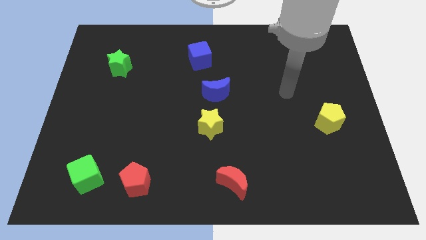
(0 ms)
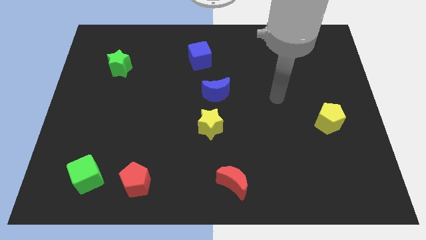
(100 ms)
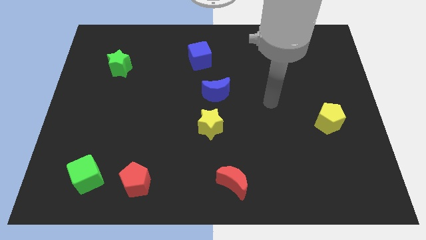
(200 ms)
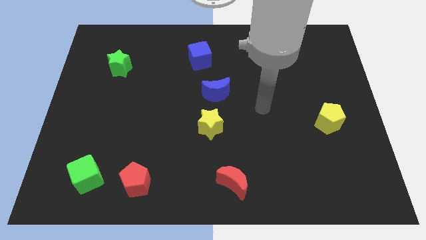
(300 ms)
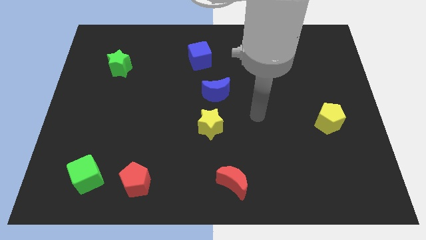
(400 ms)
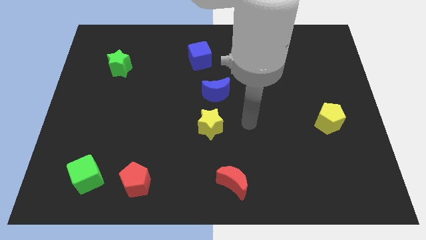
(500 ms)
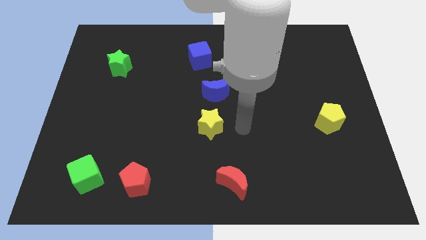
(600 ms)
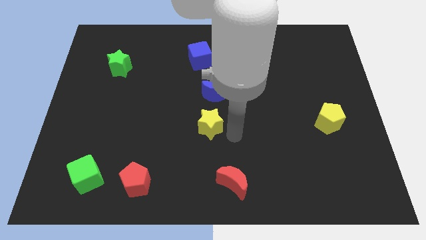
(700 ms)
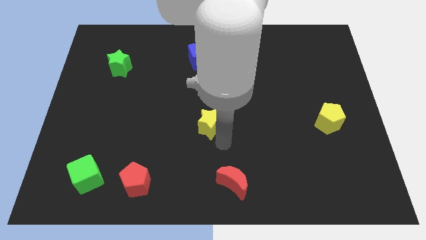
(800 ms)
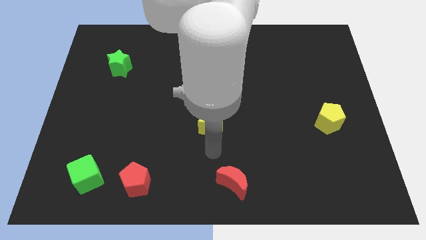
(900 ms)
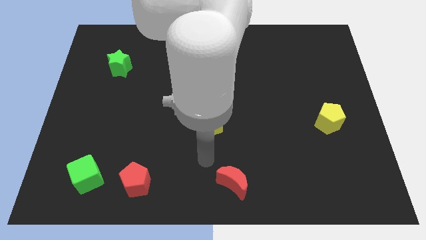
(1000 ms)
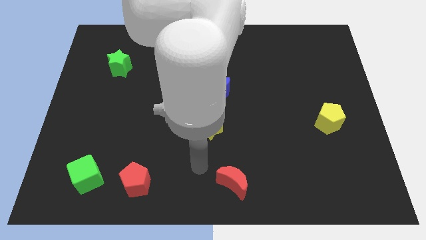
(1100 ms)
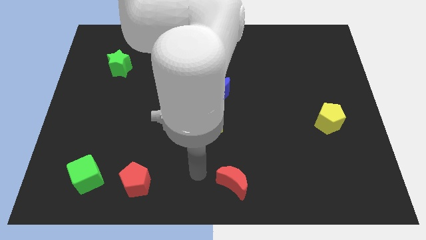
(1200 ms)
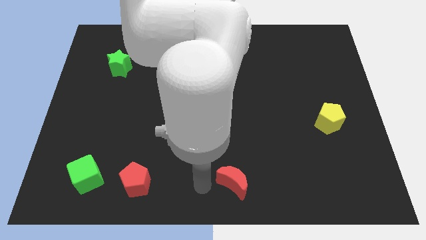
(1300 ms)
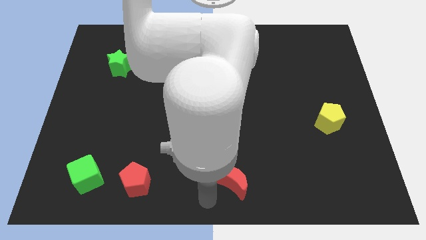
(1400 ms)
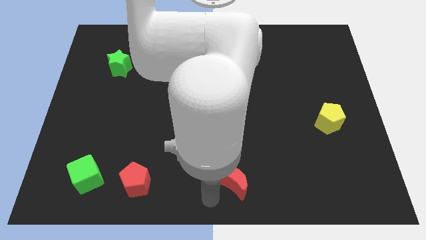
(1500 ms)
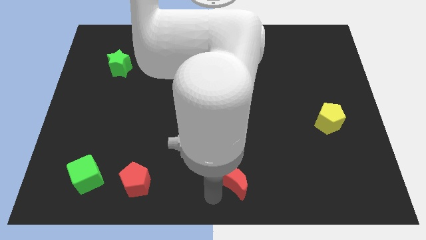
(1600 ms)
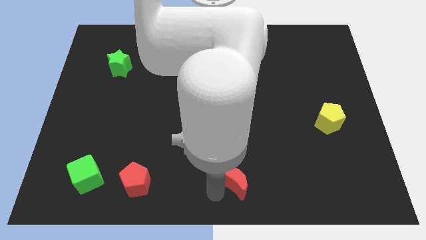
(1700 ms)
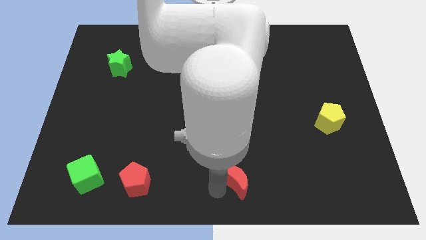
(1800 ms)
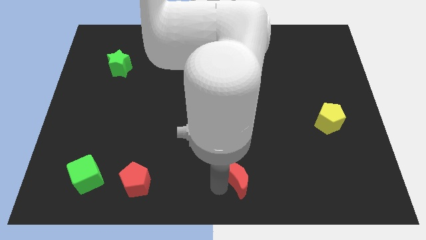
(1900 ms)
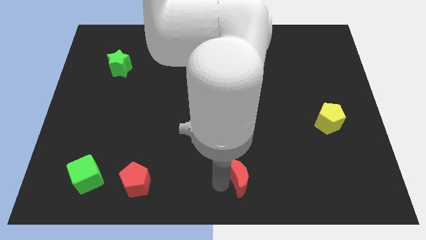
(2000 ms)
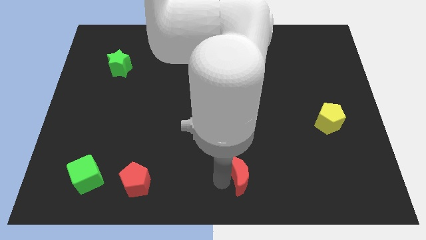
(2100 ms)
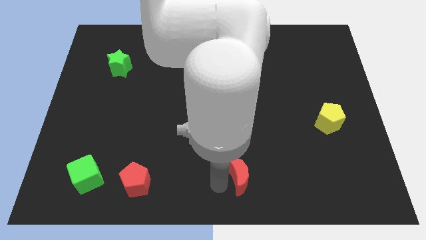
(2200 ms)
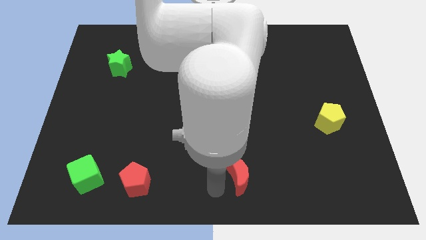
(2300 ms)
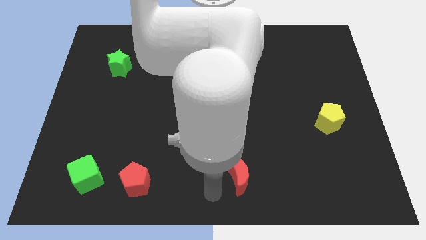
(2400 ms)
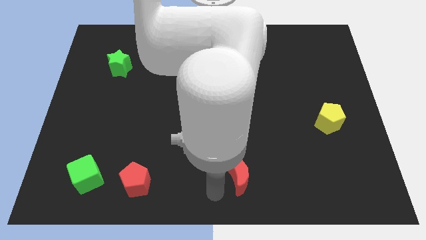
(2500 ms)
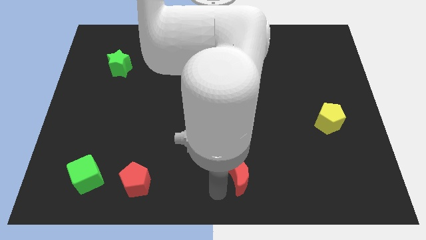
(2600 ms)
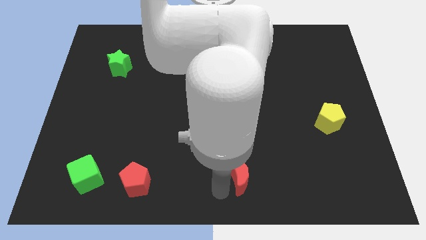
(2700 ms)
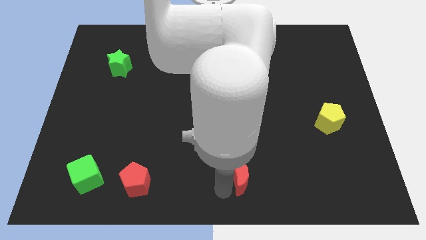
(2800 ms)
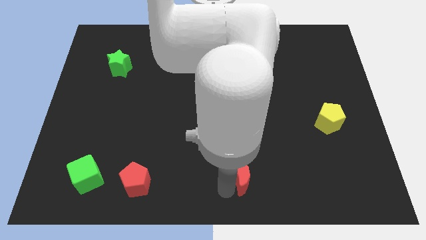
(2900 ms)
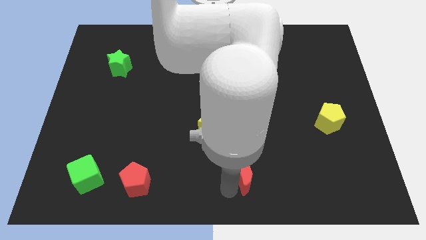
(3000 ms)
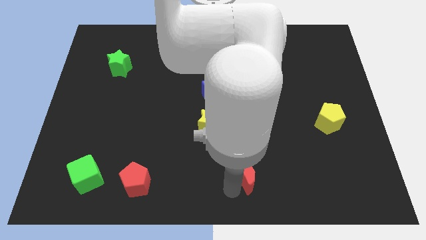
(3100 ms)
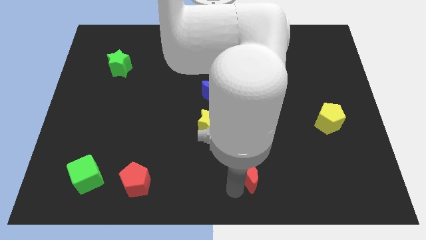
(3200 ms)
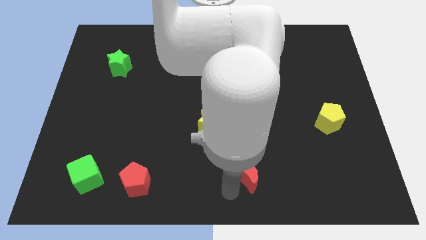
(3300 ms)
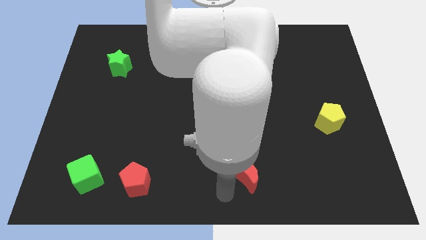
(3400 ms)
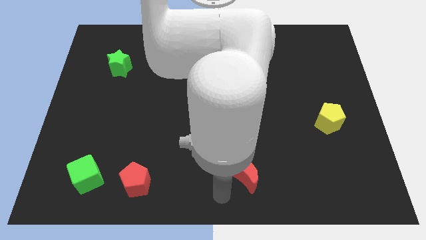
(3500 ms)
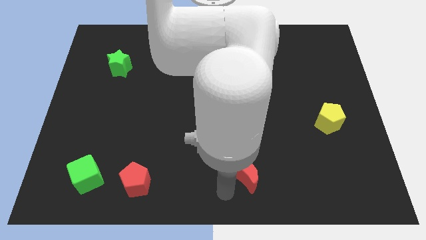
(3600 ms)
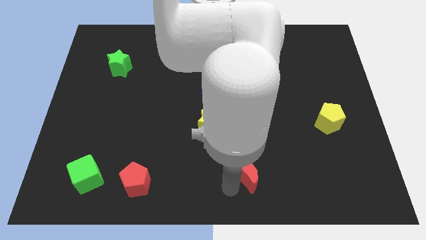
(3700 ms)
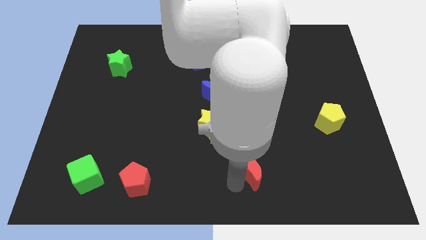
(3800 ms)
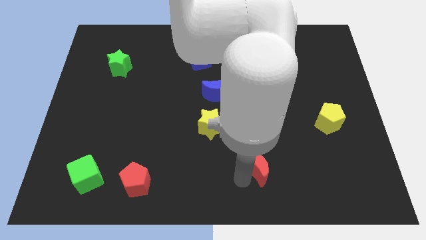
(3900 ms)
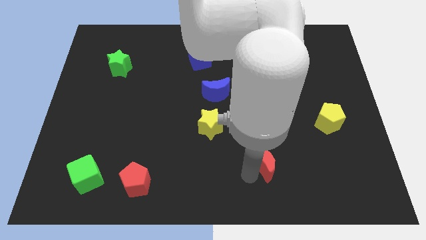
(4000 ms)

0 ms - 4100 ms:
move the red moon a little bit up and right

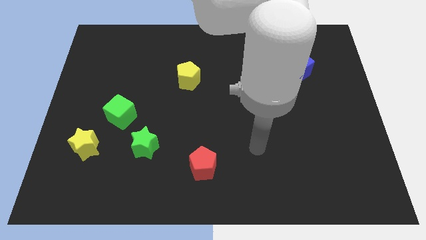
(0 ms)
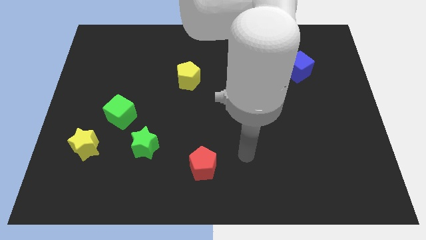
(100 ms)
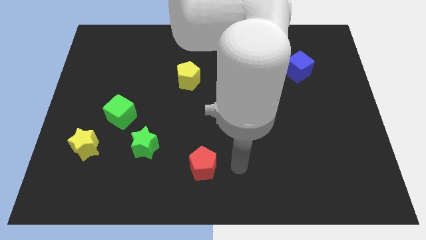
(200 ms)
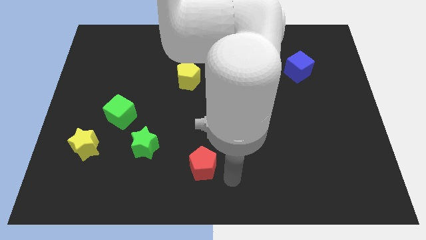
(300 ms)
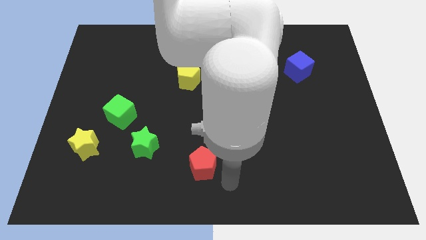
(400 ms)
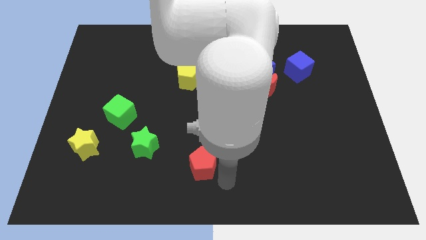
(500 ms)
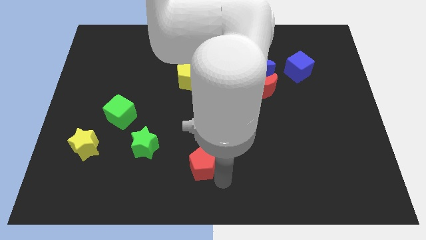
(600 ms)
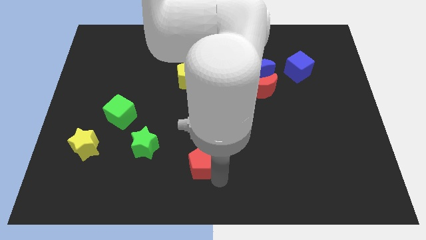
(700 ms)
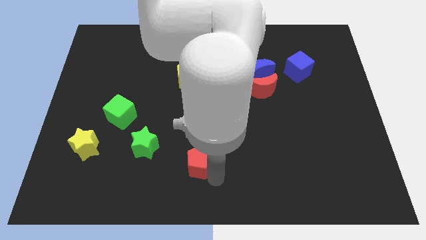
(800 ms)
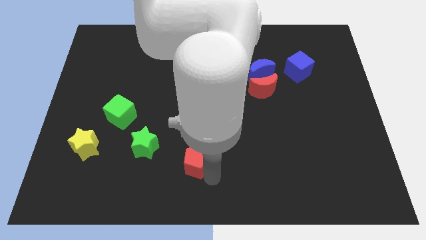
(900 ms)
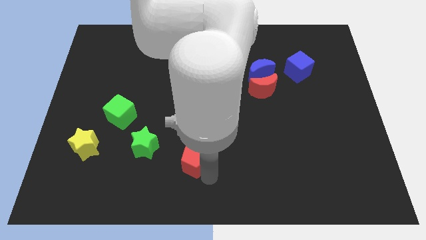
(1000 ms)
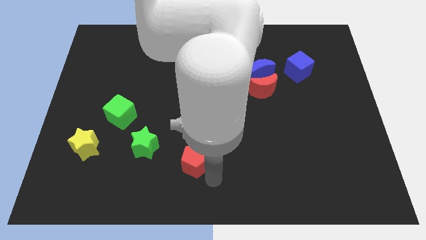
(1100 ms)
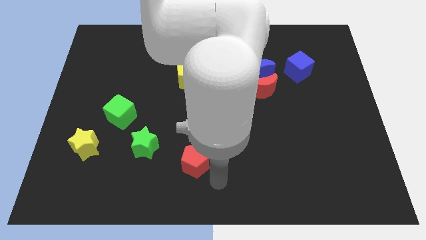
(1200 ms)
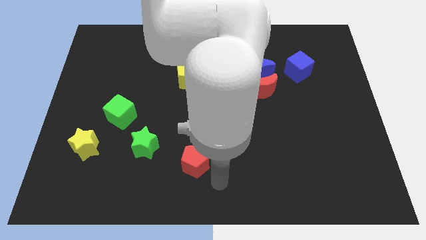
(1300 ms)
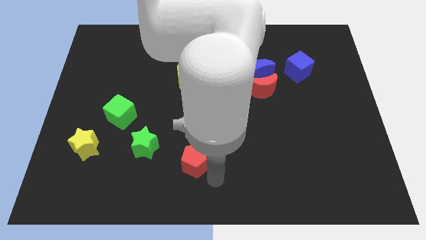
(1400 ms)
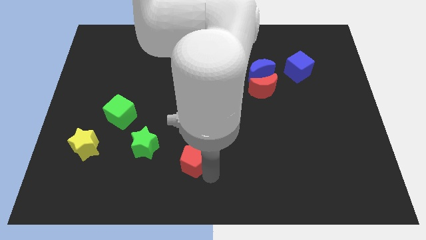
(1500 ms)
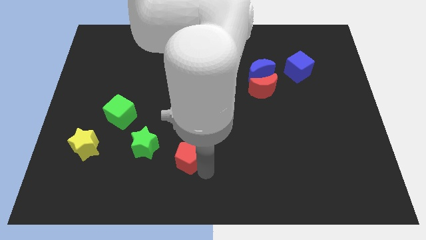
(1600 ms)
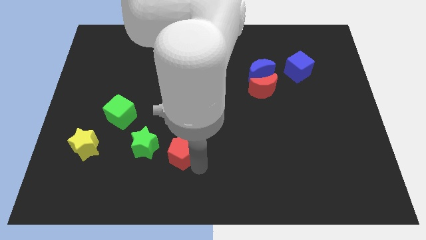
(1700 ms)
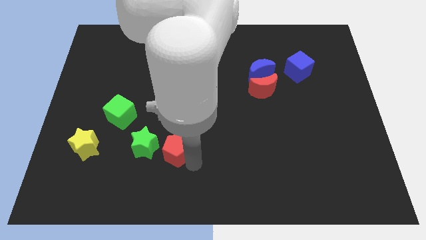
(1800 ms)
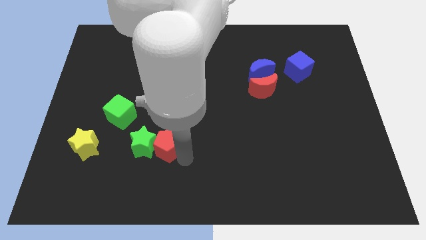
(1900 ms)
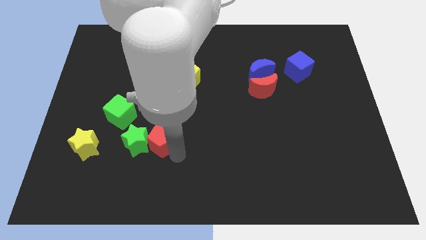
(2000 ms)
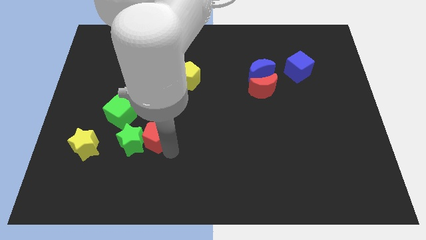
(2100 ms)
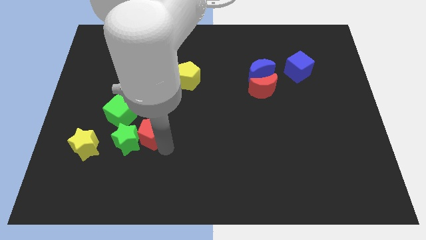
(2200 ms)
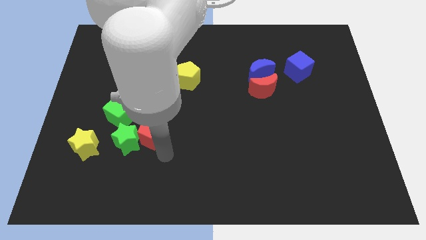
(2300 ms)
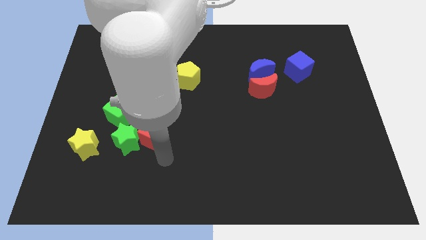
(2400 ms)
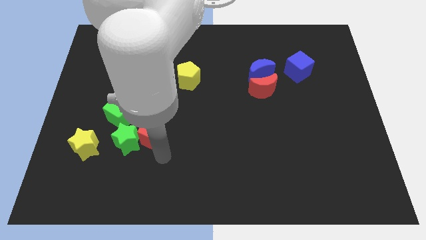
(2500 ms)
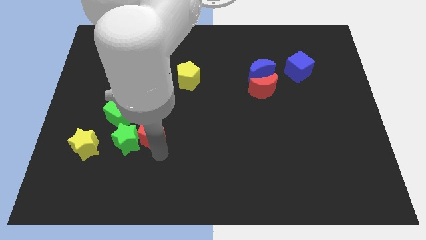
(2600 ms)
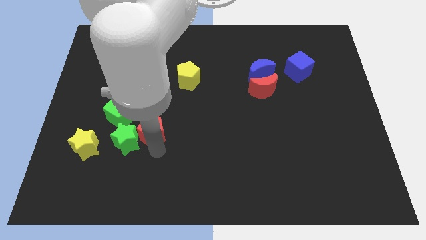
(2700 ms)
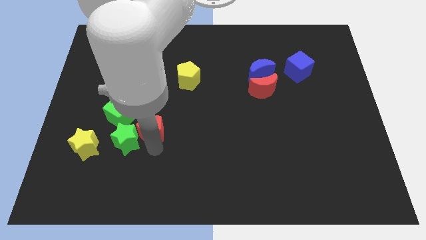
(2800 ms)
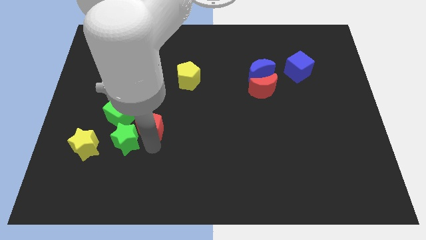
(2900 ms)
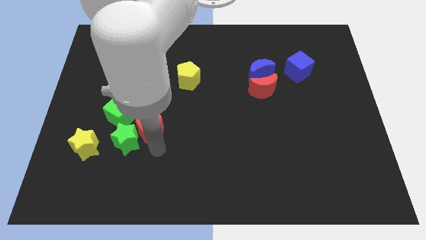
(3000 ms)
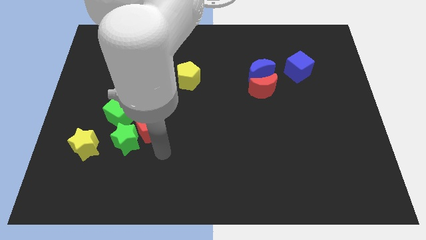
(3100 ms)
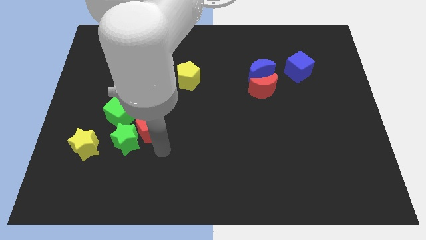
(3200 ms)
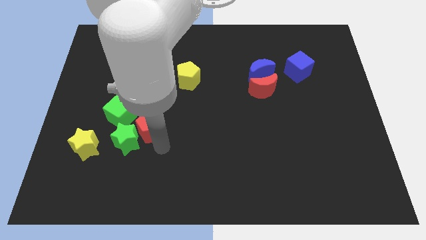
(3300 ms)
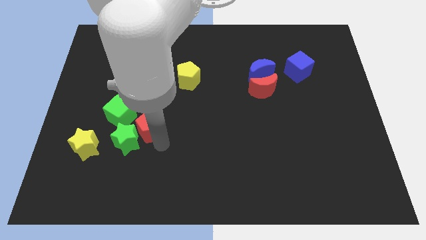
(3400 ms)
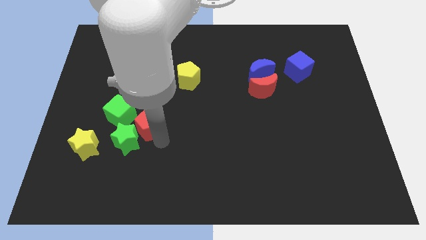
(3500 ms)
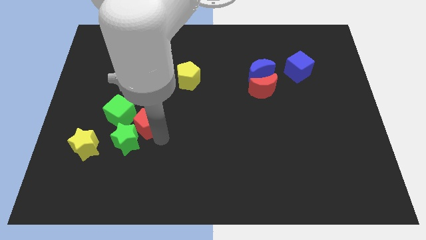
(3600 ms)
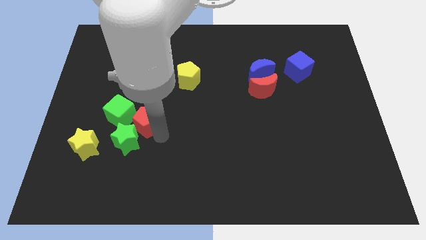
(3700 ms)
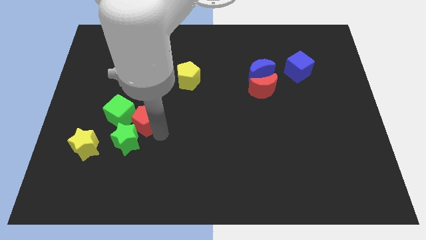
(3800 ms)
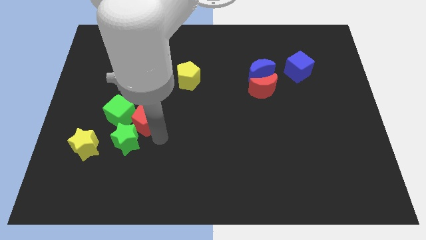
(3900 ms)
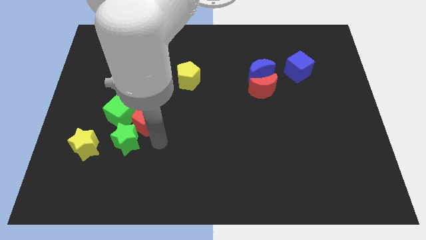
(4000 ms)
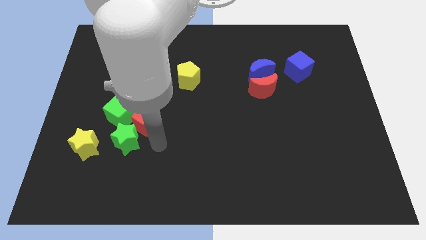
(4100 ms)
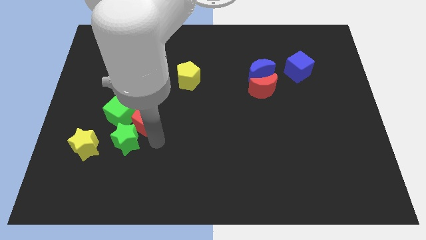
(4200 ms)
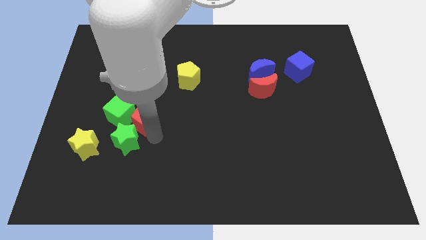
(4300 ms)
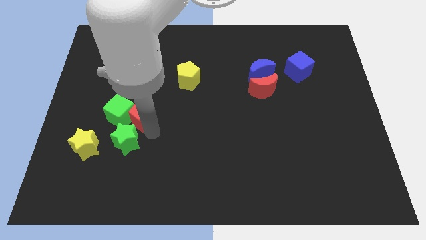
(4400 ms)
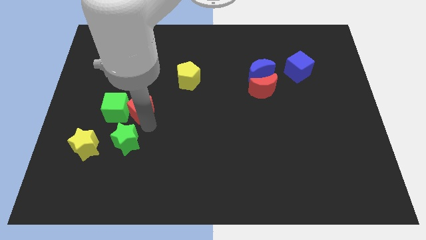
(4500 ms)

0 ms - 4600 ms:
move the red pentagon diagonally upwards and to the left
